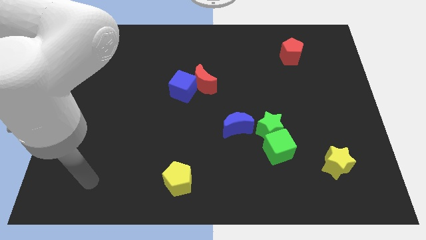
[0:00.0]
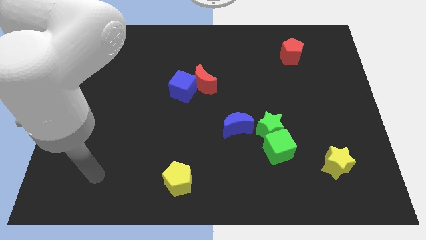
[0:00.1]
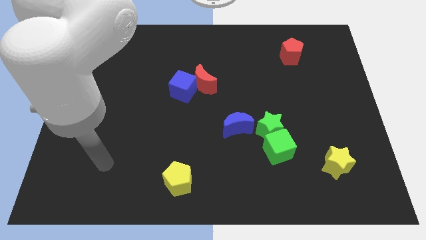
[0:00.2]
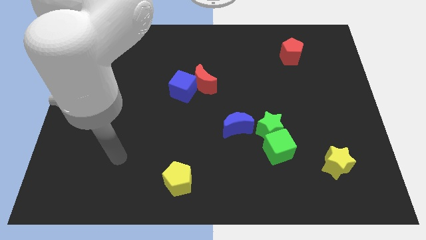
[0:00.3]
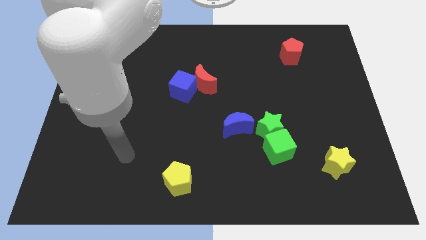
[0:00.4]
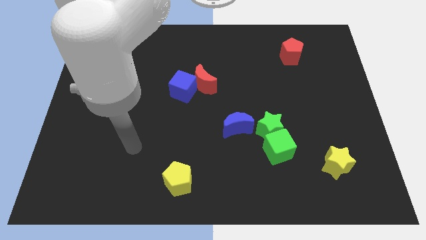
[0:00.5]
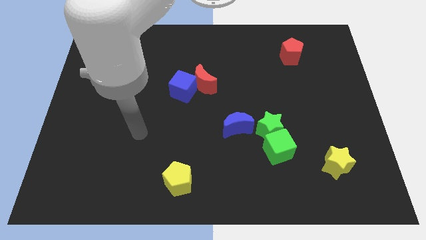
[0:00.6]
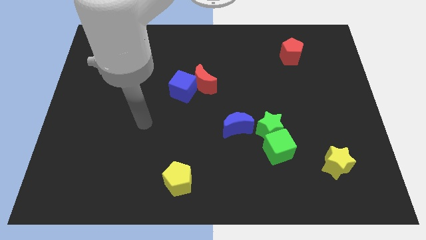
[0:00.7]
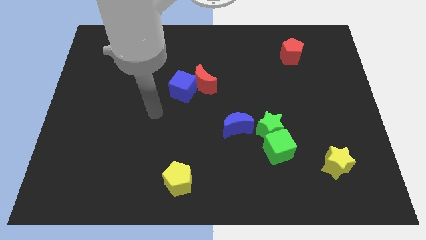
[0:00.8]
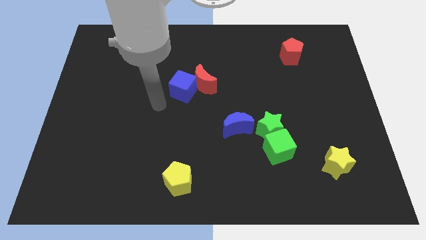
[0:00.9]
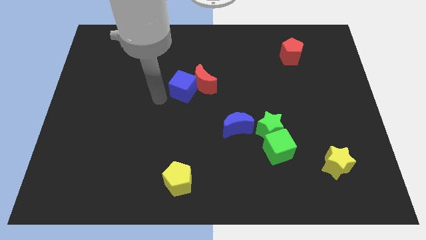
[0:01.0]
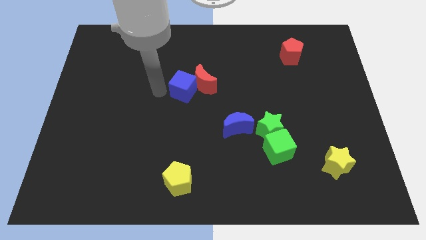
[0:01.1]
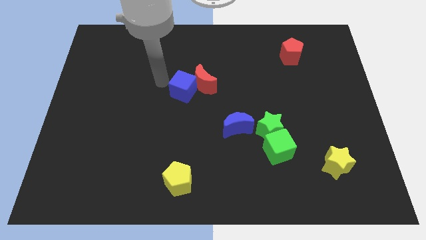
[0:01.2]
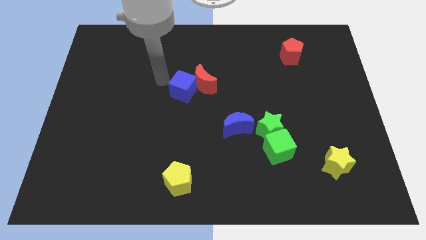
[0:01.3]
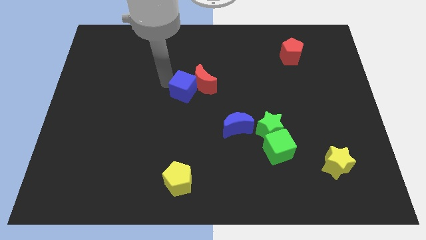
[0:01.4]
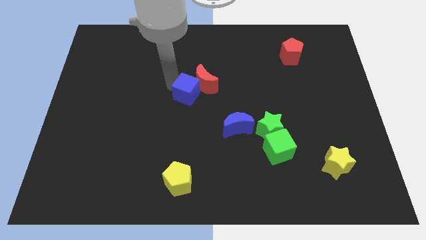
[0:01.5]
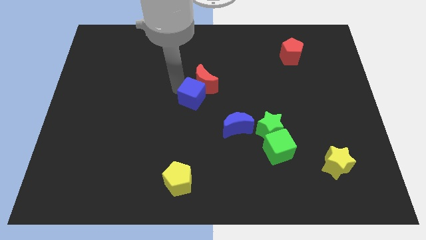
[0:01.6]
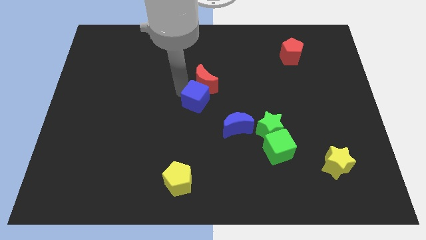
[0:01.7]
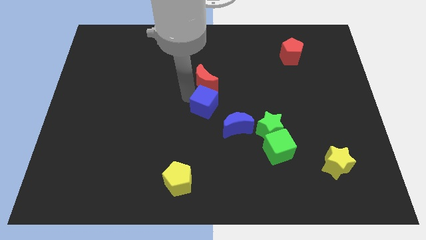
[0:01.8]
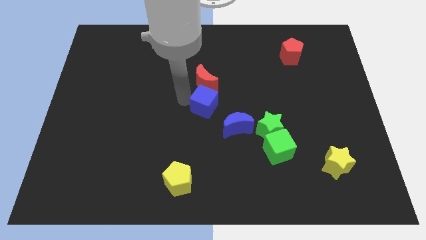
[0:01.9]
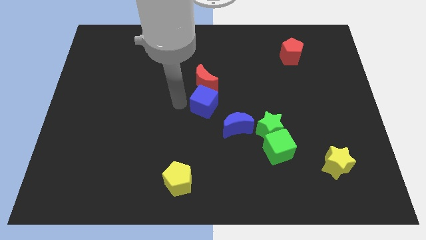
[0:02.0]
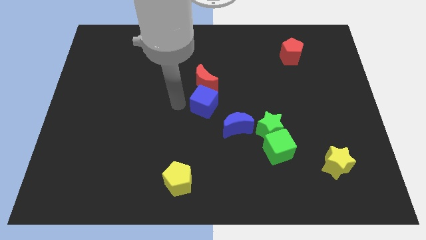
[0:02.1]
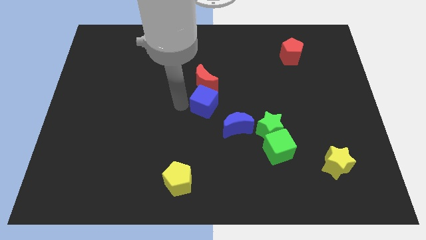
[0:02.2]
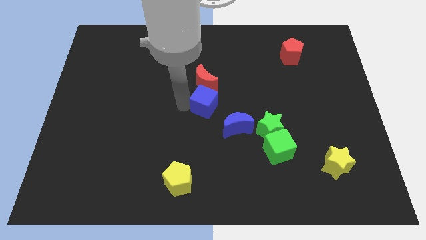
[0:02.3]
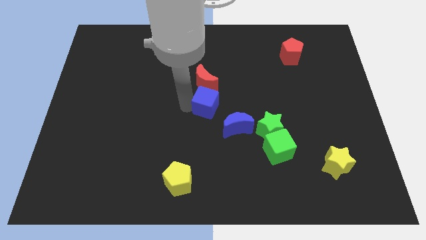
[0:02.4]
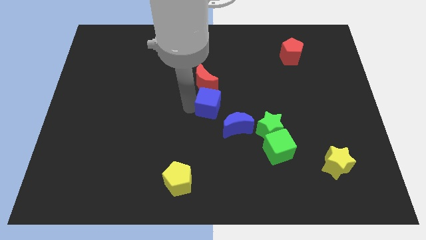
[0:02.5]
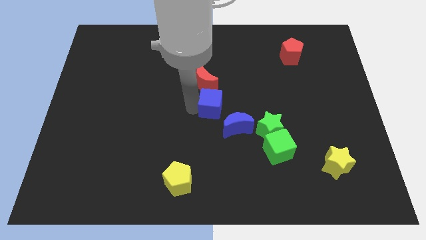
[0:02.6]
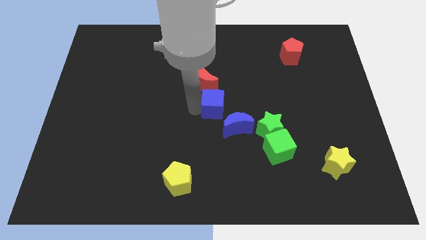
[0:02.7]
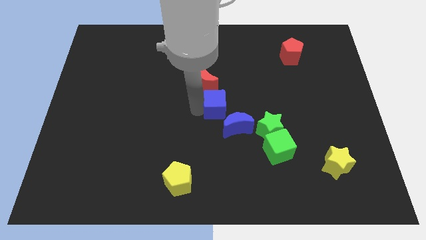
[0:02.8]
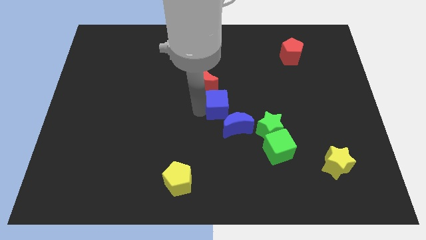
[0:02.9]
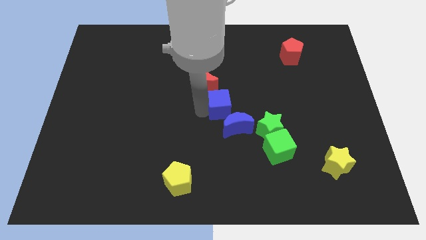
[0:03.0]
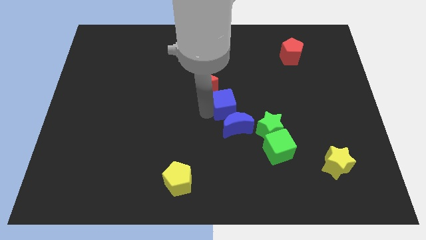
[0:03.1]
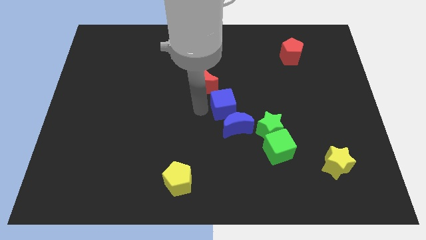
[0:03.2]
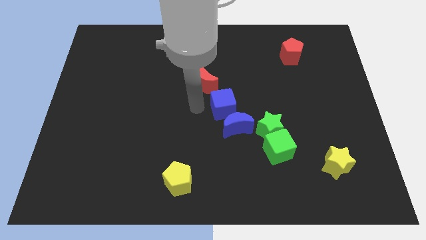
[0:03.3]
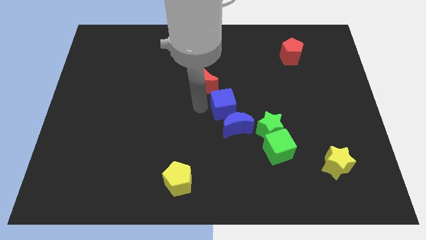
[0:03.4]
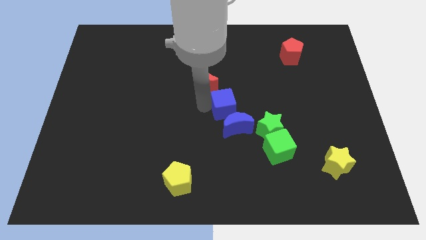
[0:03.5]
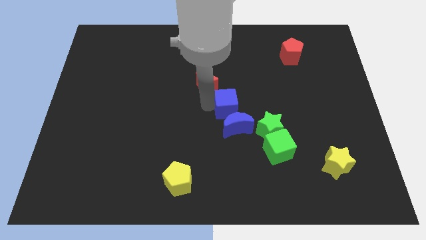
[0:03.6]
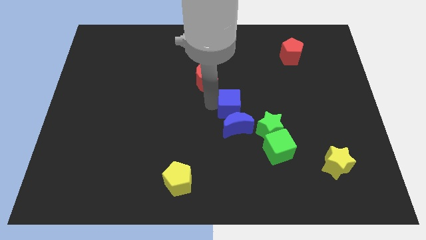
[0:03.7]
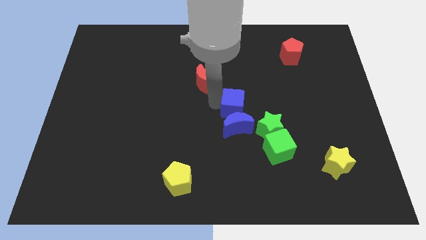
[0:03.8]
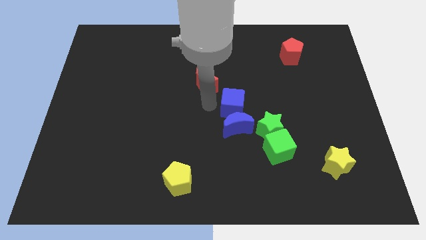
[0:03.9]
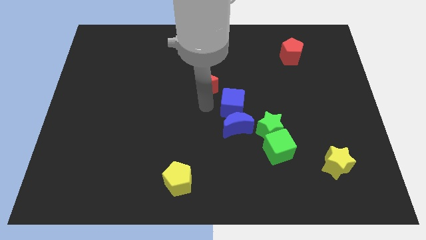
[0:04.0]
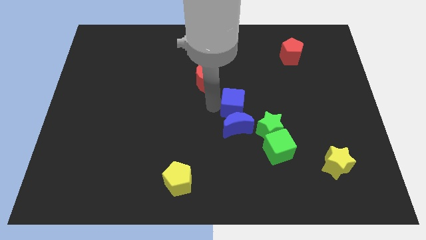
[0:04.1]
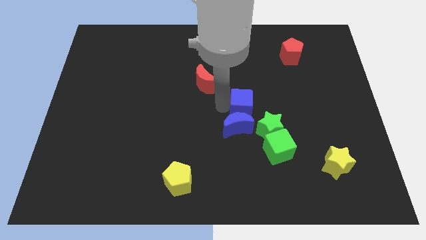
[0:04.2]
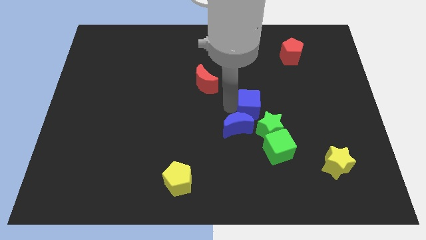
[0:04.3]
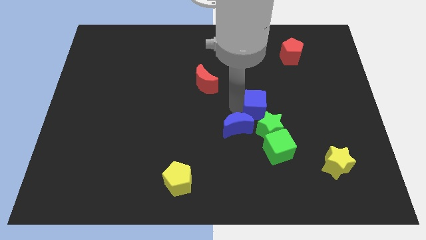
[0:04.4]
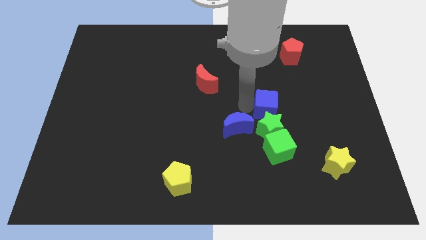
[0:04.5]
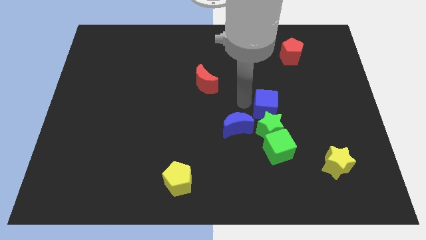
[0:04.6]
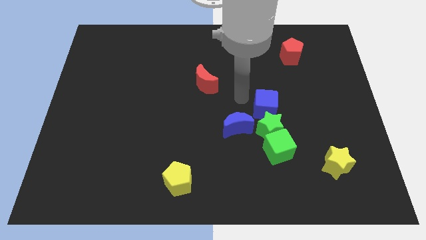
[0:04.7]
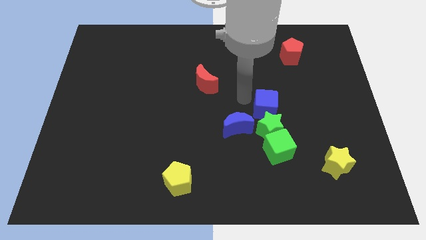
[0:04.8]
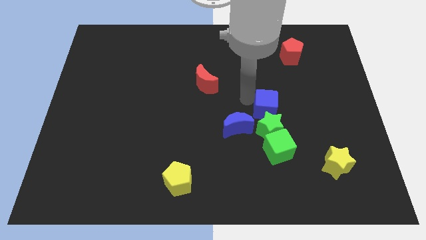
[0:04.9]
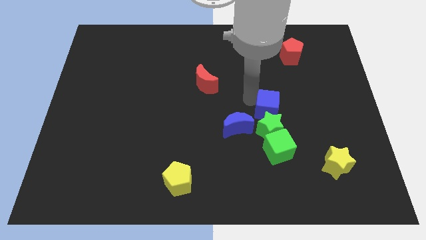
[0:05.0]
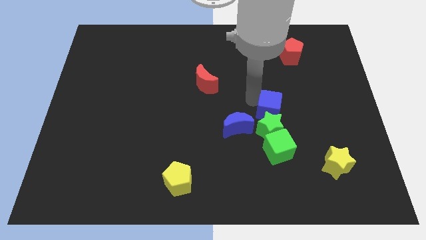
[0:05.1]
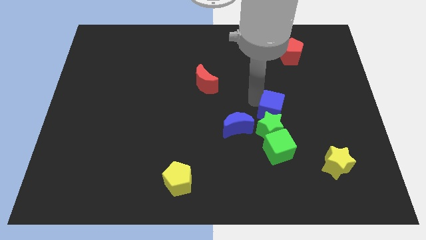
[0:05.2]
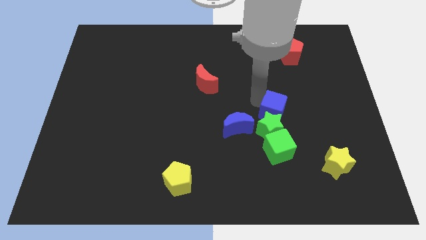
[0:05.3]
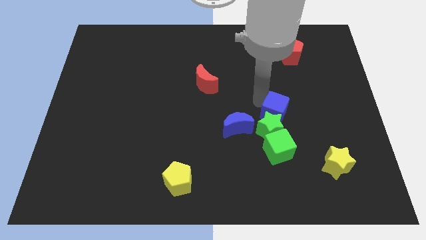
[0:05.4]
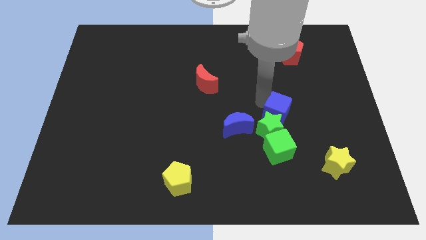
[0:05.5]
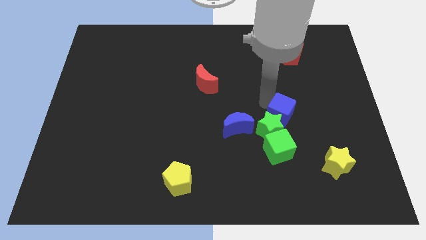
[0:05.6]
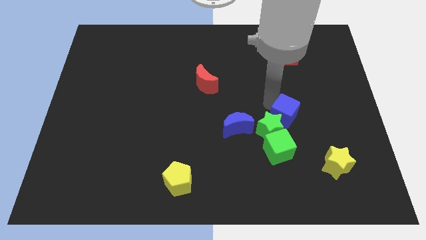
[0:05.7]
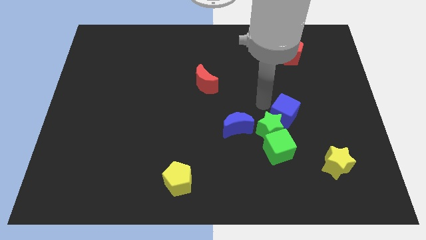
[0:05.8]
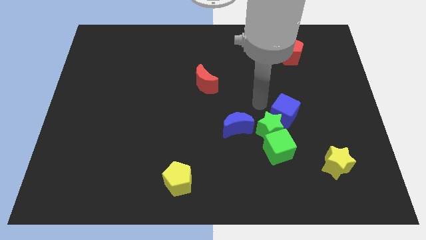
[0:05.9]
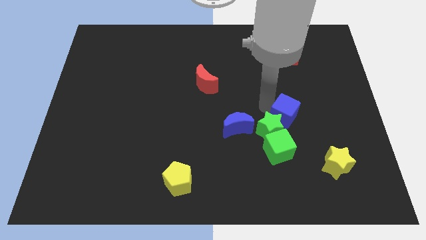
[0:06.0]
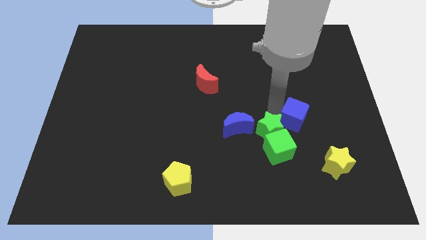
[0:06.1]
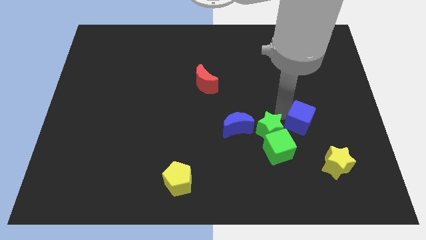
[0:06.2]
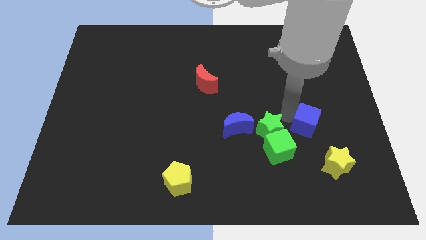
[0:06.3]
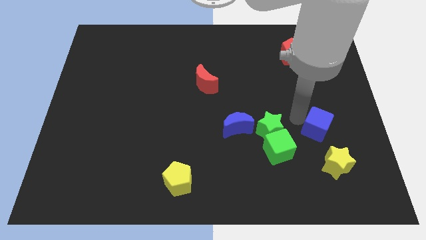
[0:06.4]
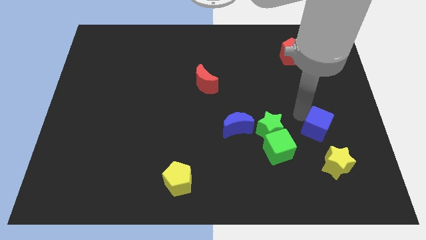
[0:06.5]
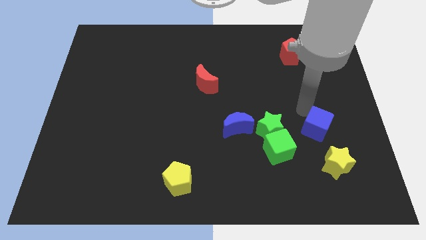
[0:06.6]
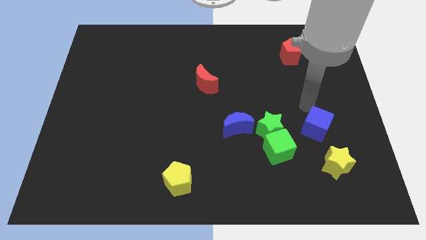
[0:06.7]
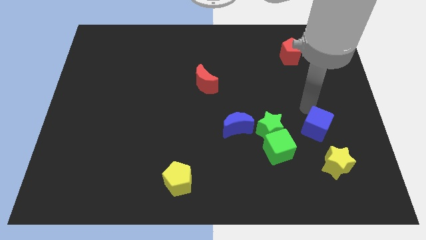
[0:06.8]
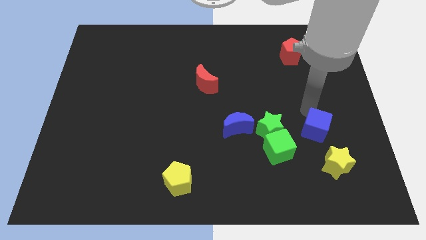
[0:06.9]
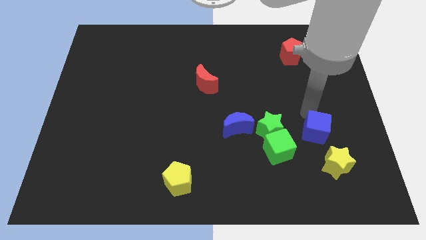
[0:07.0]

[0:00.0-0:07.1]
put the blue cube to the right side of the green cube
